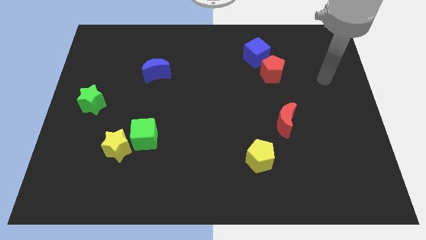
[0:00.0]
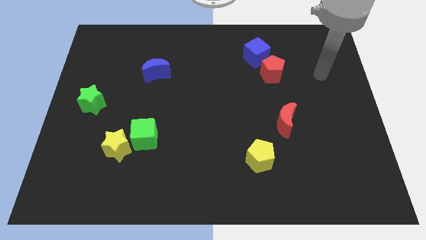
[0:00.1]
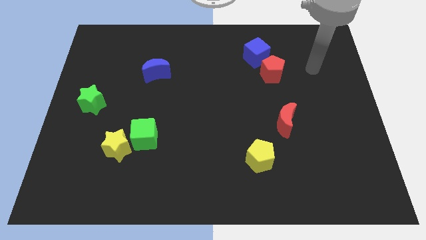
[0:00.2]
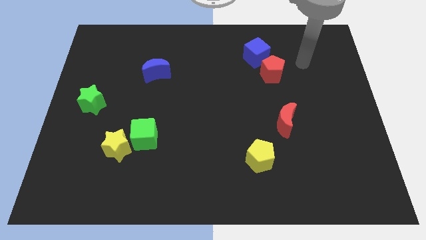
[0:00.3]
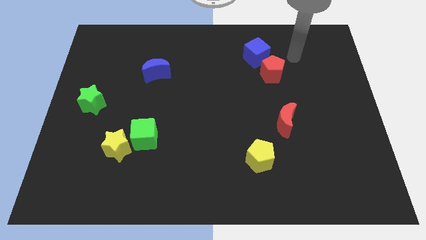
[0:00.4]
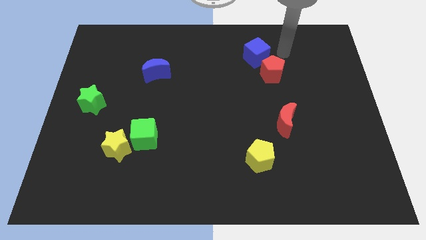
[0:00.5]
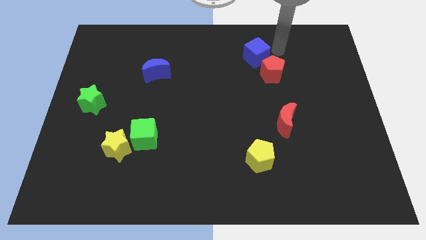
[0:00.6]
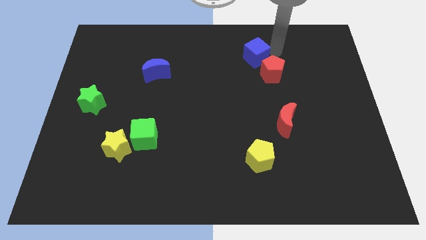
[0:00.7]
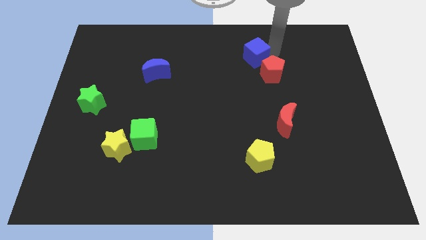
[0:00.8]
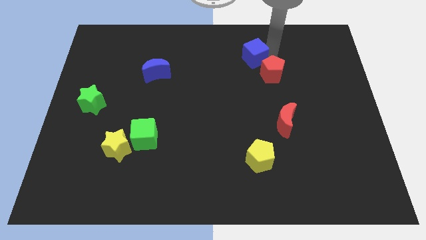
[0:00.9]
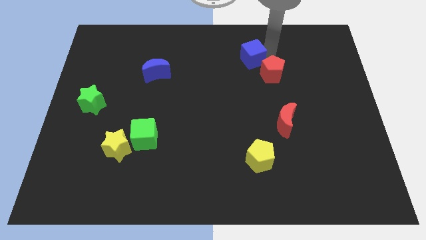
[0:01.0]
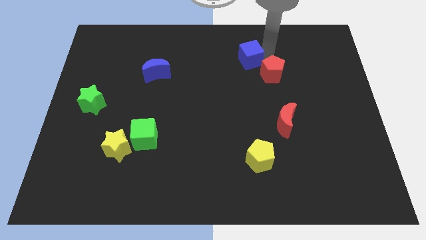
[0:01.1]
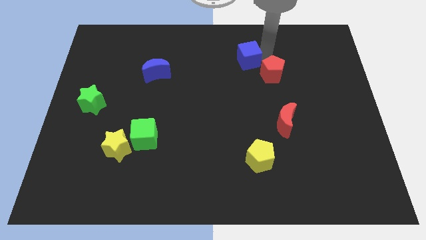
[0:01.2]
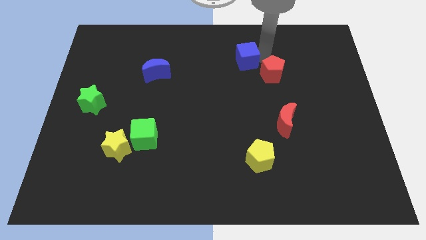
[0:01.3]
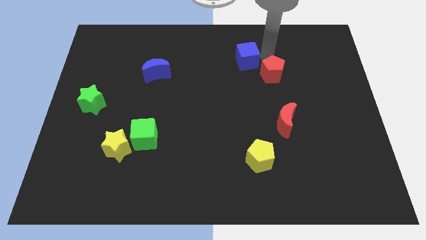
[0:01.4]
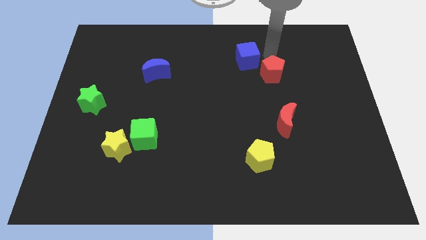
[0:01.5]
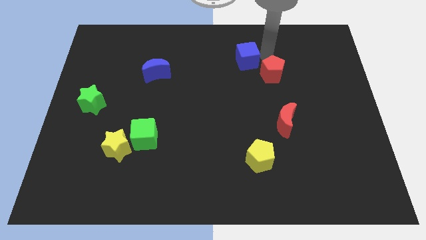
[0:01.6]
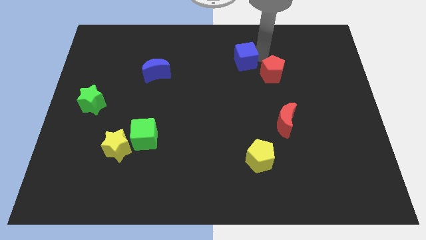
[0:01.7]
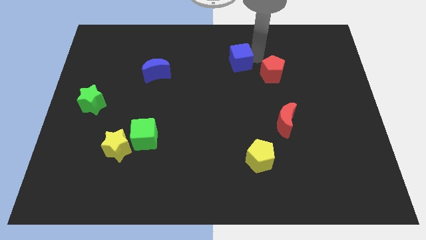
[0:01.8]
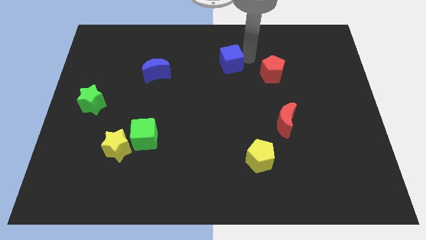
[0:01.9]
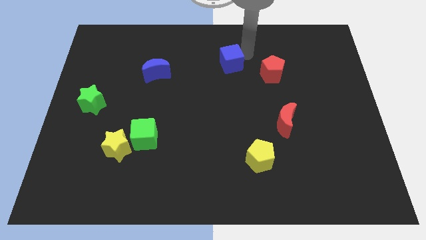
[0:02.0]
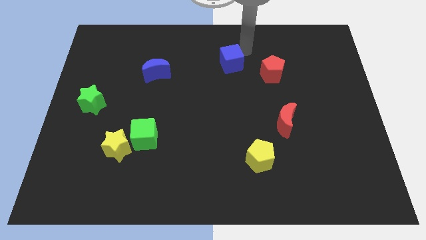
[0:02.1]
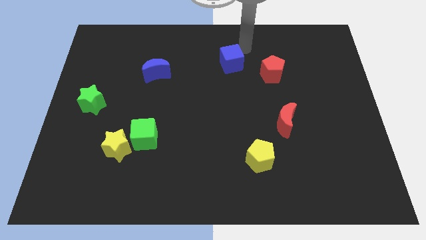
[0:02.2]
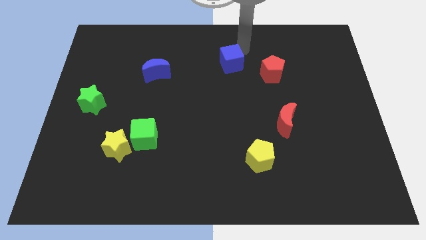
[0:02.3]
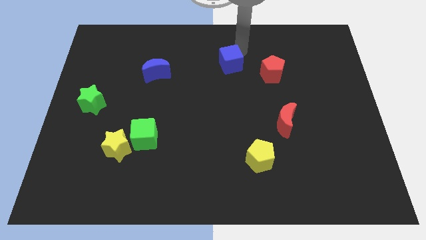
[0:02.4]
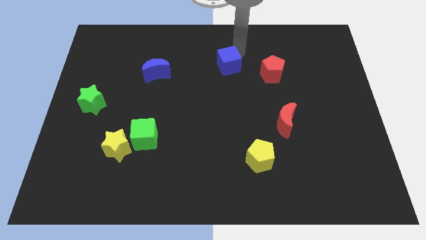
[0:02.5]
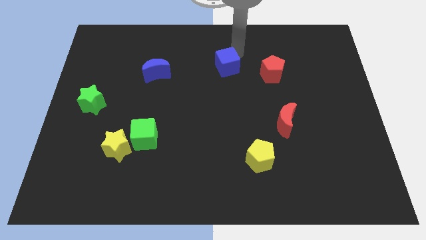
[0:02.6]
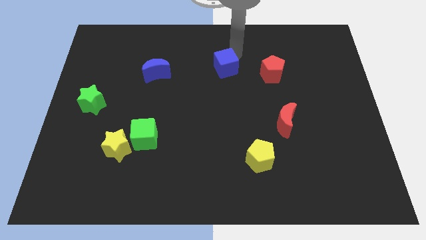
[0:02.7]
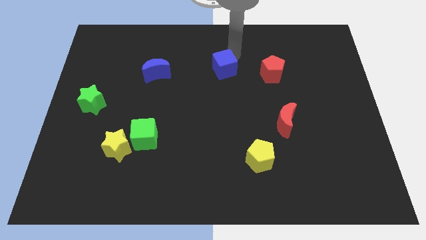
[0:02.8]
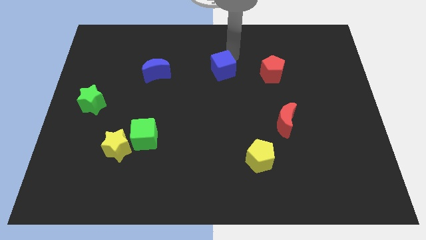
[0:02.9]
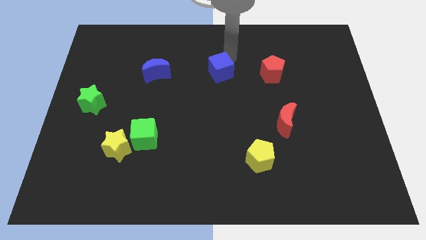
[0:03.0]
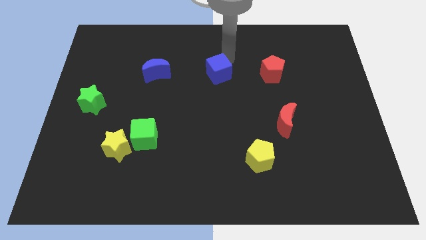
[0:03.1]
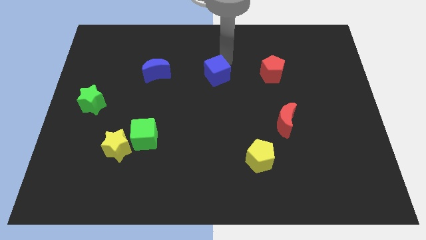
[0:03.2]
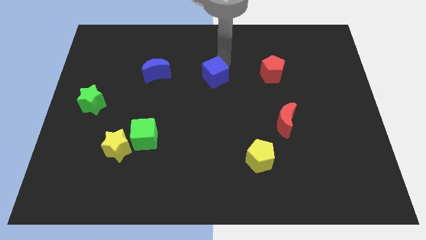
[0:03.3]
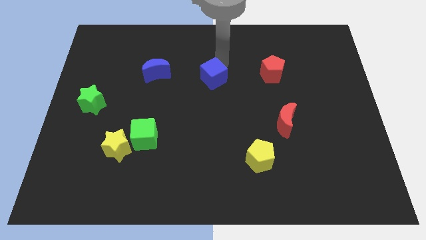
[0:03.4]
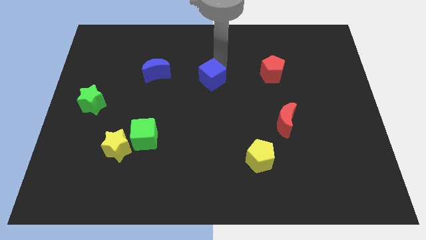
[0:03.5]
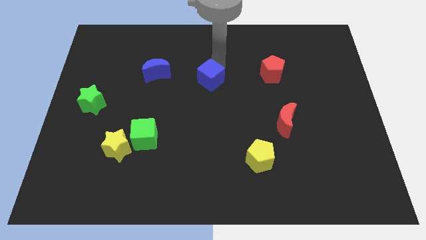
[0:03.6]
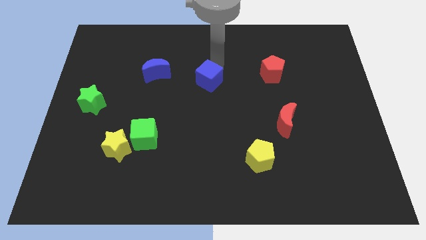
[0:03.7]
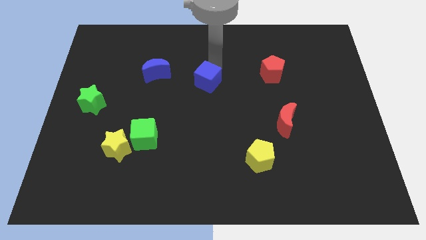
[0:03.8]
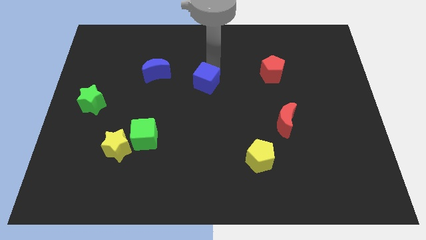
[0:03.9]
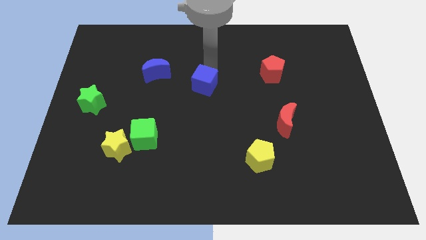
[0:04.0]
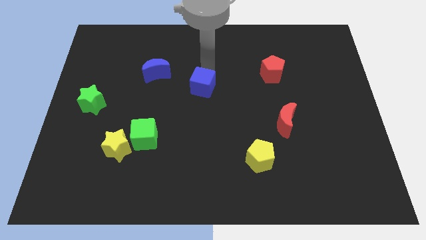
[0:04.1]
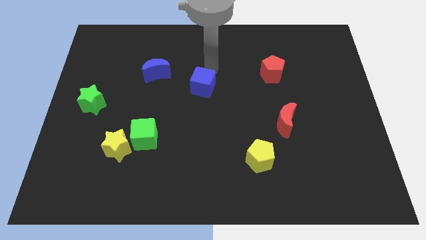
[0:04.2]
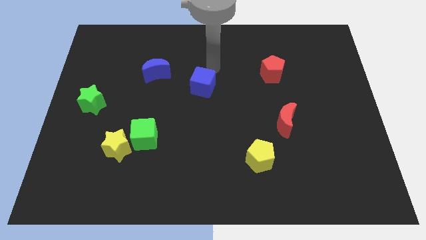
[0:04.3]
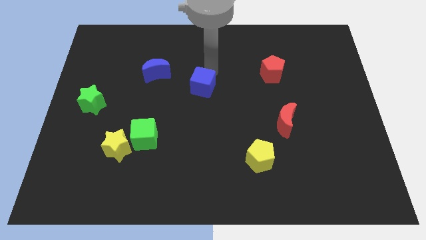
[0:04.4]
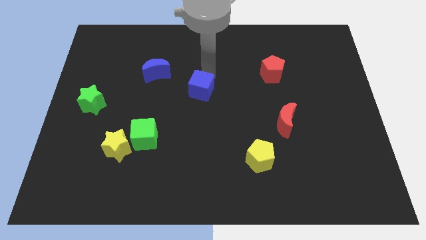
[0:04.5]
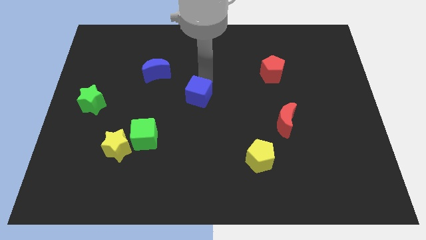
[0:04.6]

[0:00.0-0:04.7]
push the blue cube diagonally downwards and left

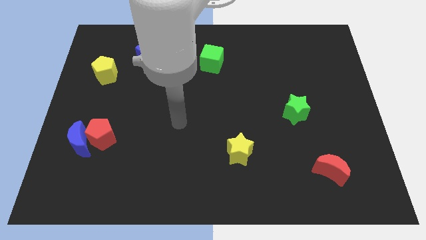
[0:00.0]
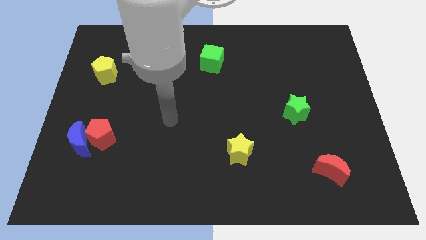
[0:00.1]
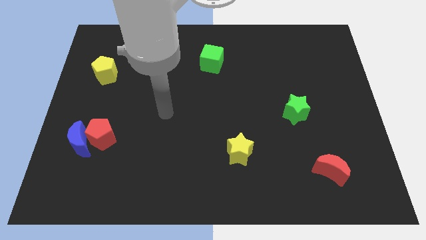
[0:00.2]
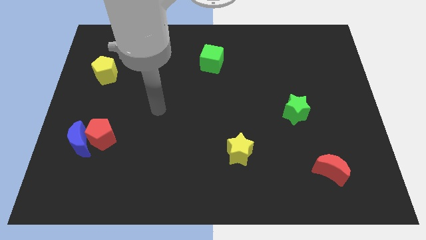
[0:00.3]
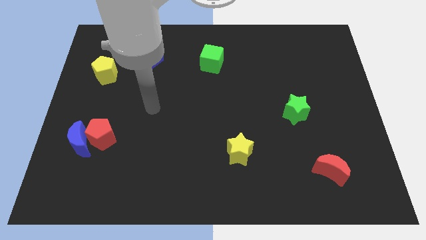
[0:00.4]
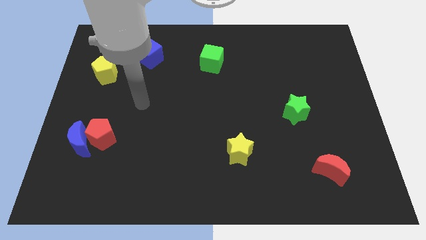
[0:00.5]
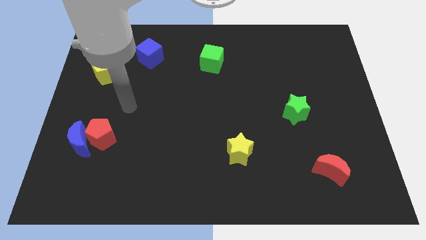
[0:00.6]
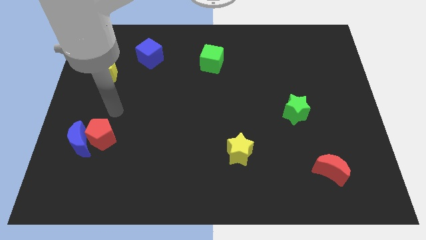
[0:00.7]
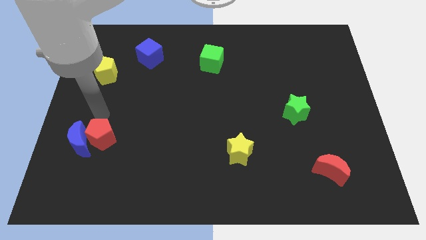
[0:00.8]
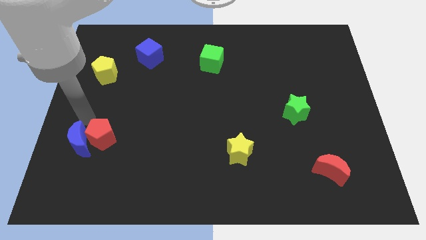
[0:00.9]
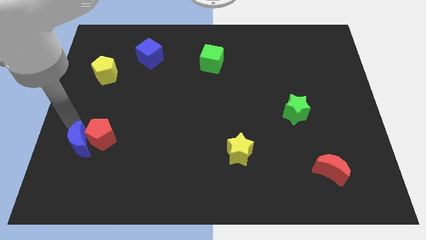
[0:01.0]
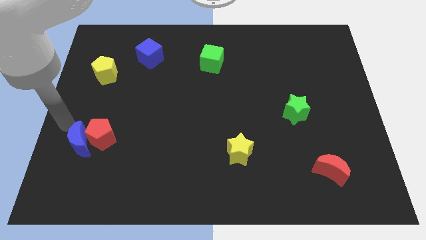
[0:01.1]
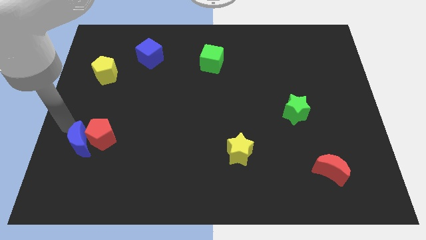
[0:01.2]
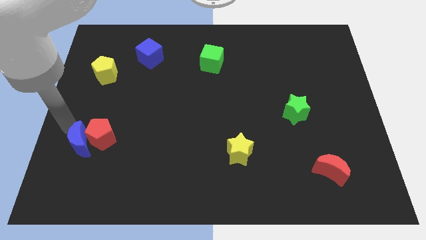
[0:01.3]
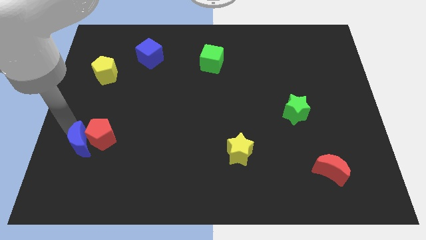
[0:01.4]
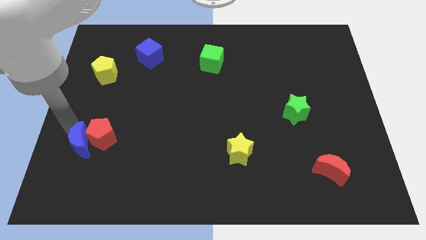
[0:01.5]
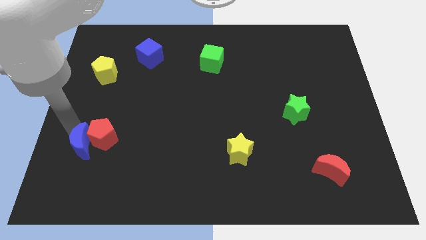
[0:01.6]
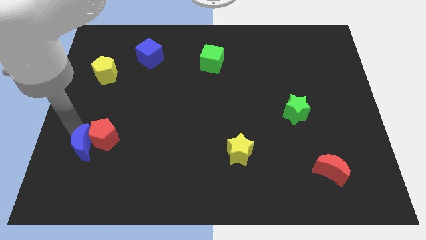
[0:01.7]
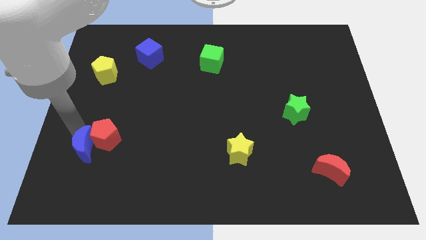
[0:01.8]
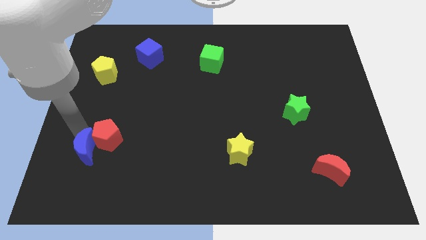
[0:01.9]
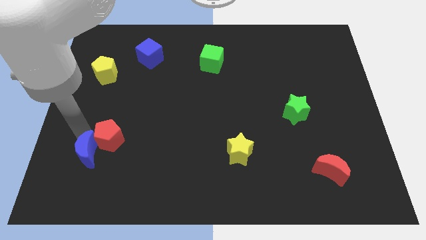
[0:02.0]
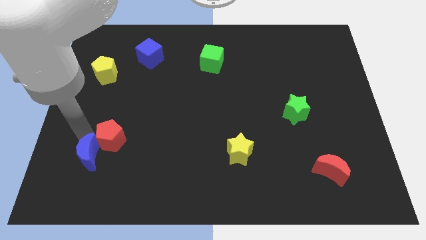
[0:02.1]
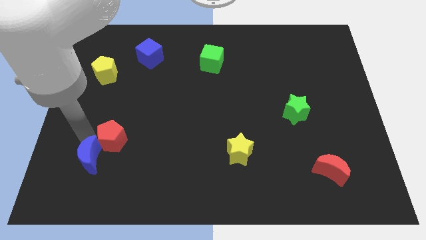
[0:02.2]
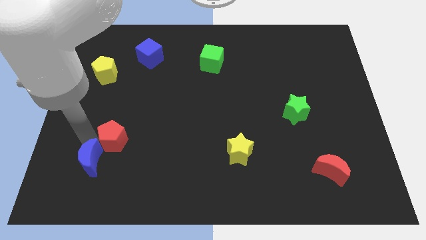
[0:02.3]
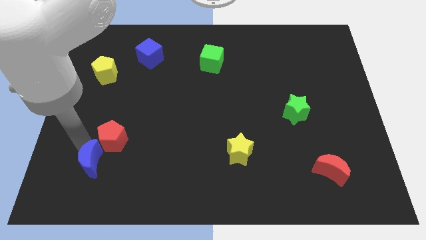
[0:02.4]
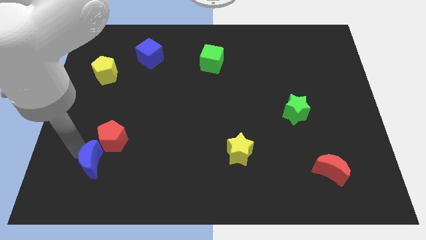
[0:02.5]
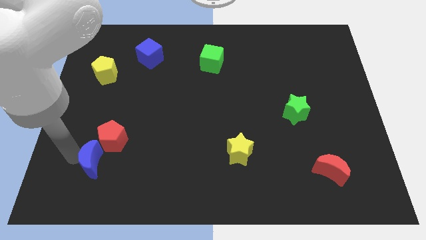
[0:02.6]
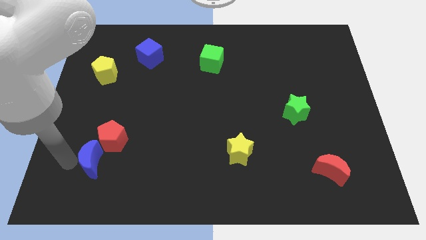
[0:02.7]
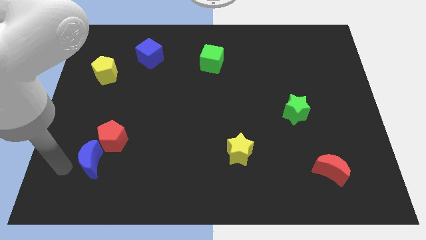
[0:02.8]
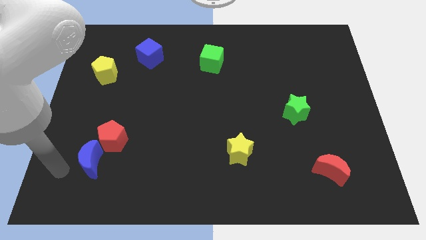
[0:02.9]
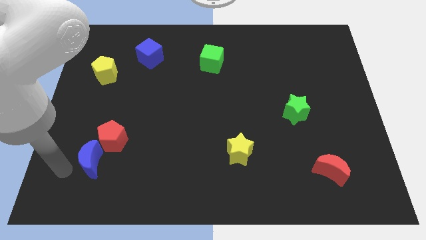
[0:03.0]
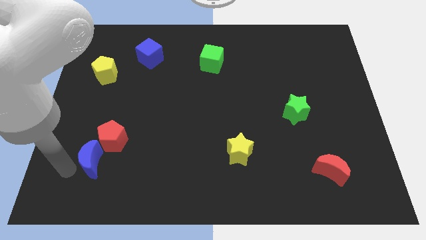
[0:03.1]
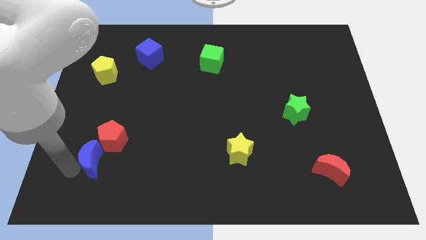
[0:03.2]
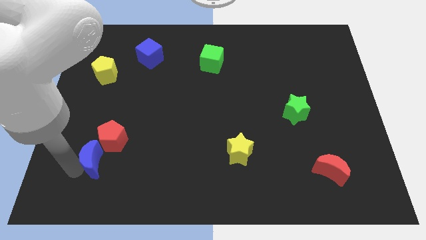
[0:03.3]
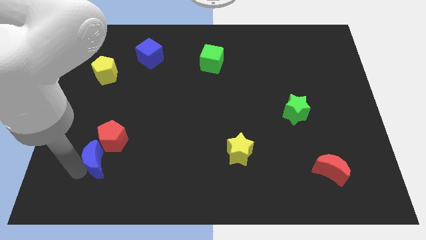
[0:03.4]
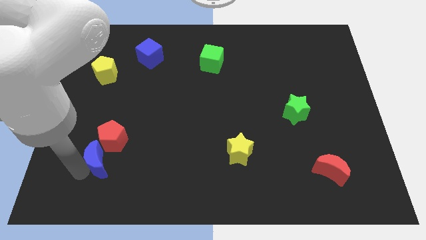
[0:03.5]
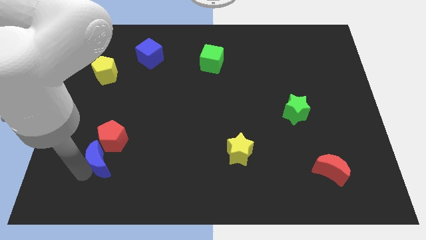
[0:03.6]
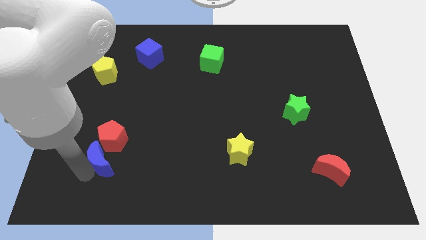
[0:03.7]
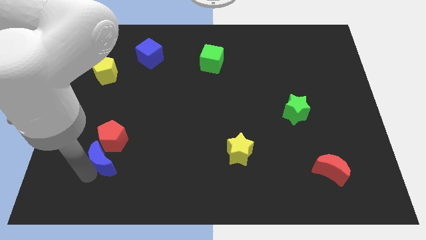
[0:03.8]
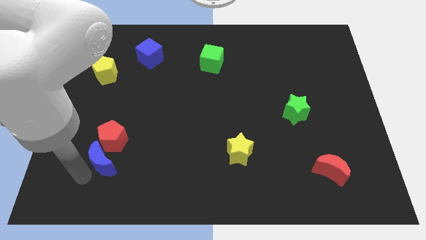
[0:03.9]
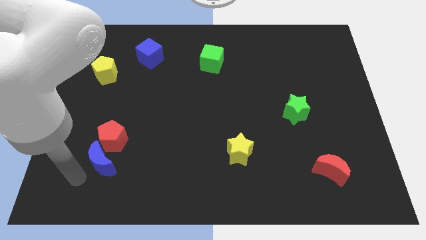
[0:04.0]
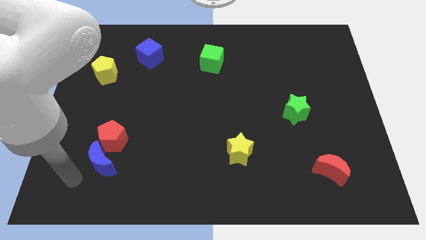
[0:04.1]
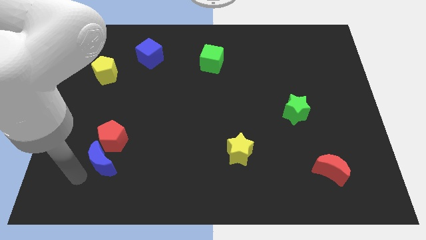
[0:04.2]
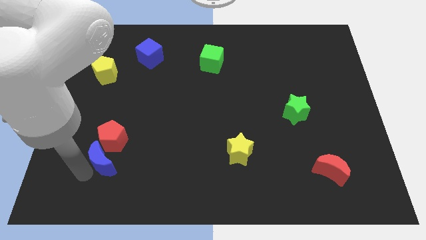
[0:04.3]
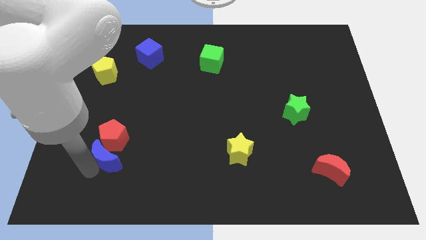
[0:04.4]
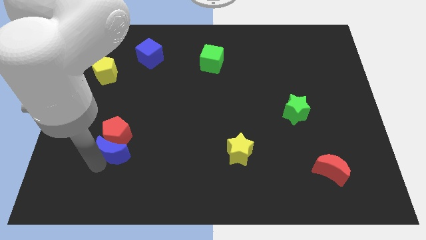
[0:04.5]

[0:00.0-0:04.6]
slide the blue moon a little bit to the right
